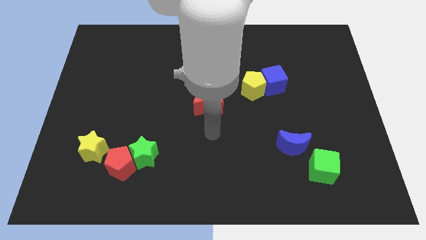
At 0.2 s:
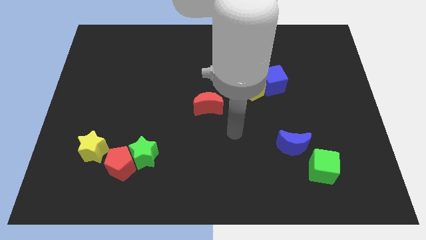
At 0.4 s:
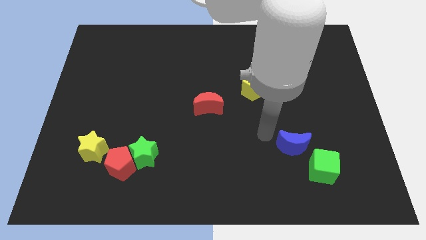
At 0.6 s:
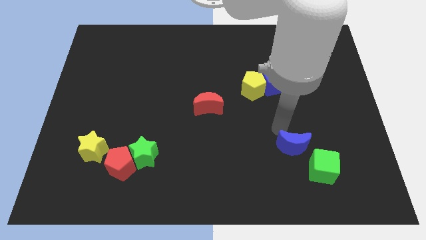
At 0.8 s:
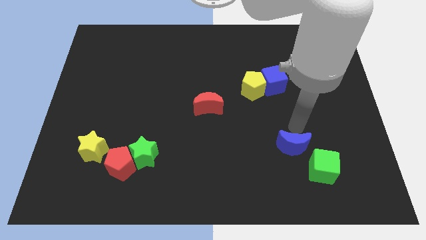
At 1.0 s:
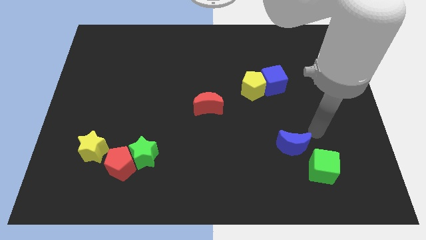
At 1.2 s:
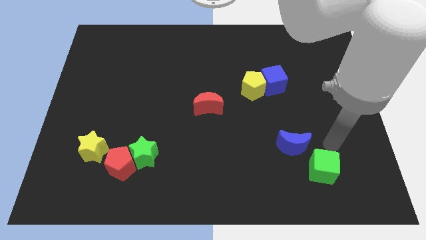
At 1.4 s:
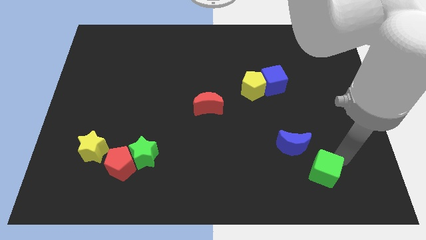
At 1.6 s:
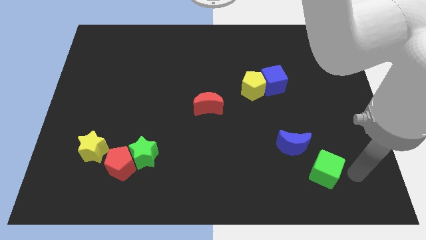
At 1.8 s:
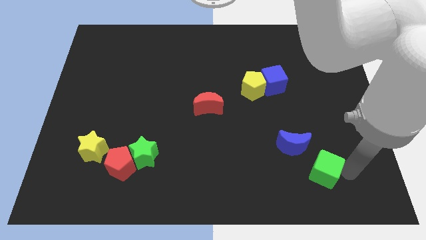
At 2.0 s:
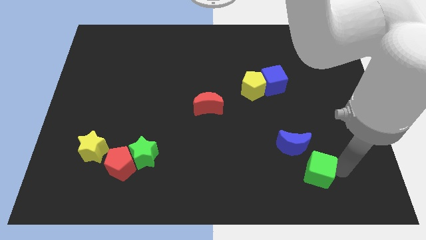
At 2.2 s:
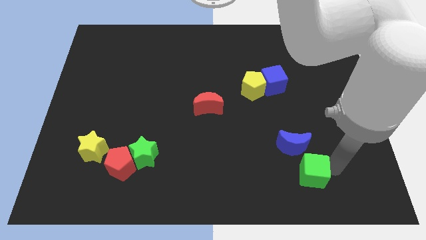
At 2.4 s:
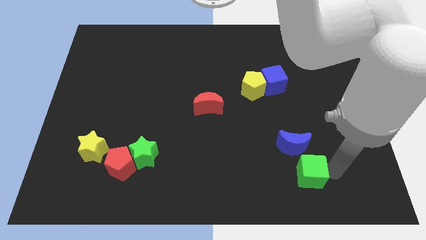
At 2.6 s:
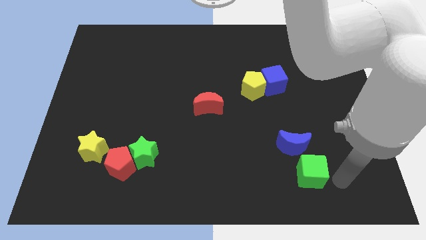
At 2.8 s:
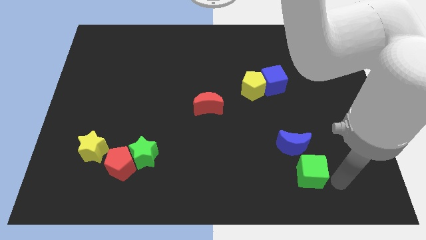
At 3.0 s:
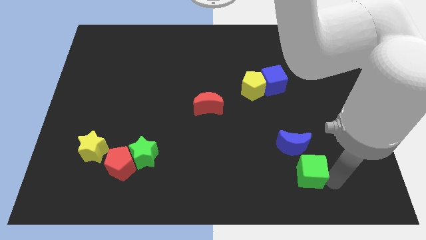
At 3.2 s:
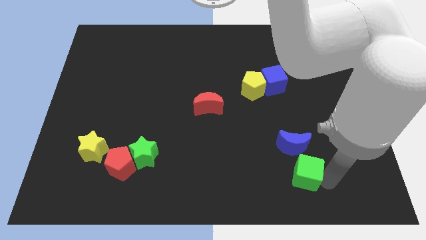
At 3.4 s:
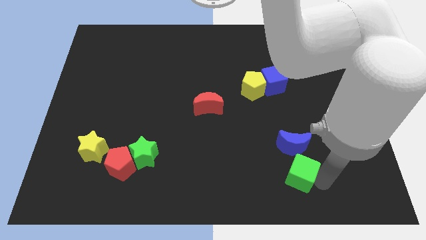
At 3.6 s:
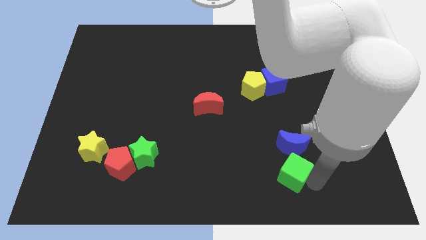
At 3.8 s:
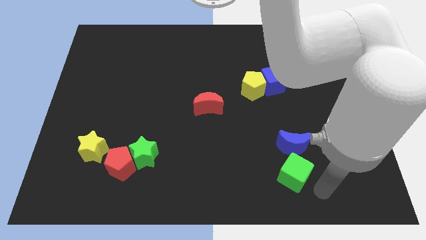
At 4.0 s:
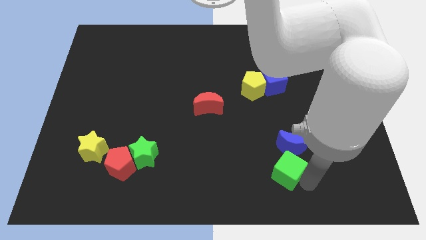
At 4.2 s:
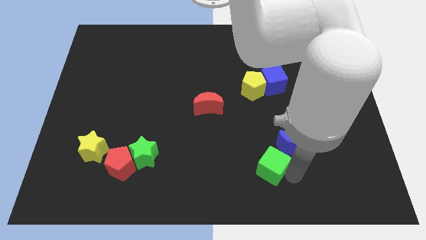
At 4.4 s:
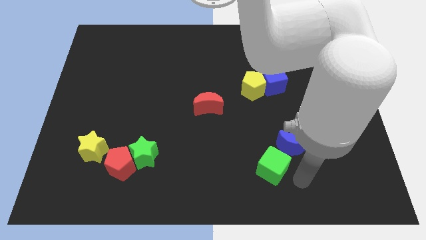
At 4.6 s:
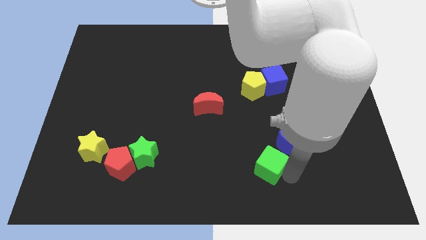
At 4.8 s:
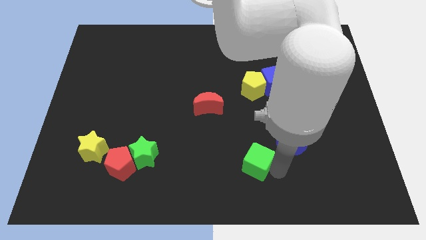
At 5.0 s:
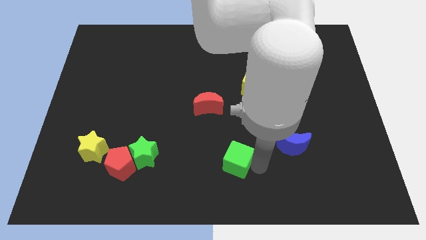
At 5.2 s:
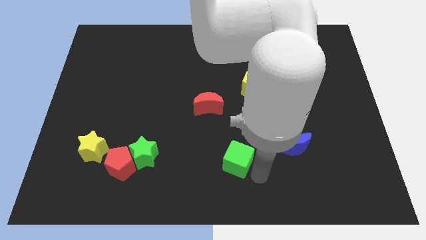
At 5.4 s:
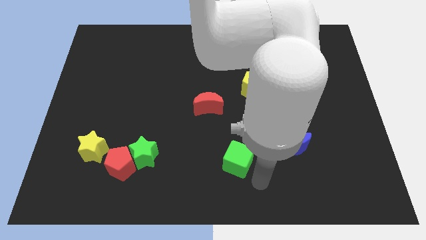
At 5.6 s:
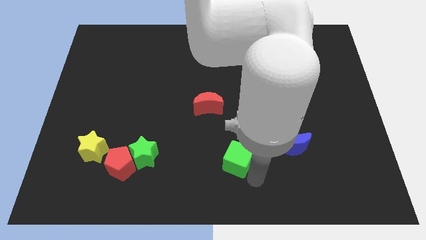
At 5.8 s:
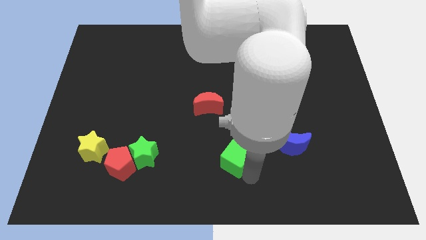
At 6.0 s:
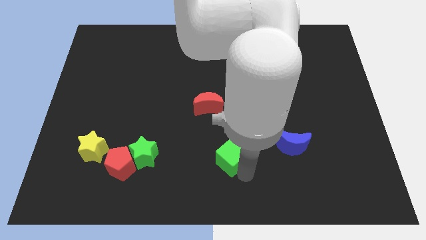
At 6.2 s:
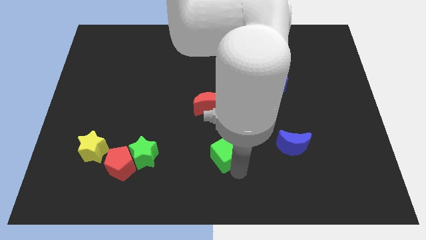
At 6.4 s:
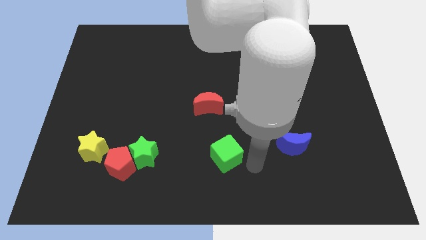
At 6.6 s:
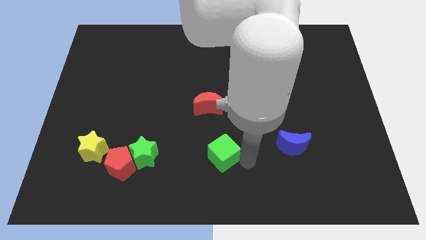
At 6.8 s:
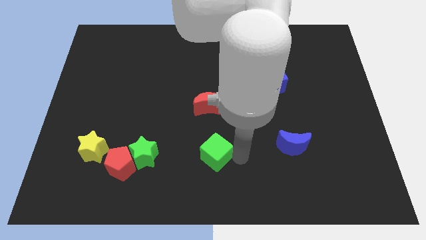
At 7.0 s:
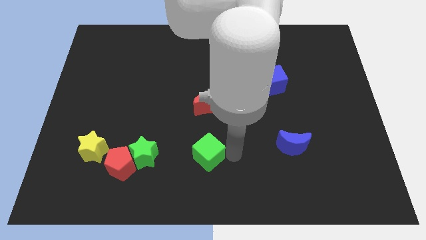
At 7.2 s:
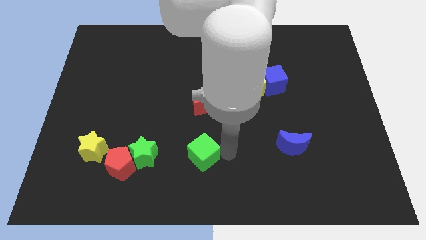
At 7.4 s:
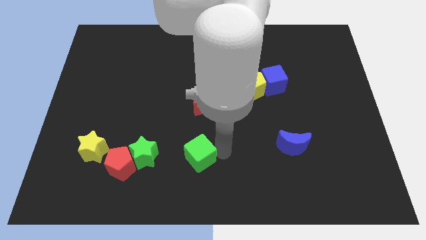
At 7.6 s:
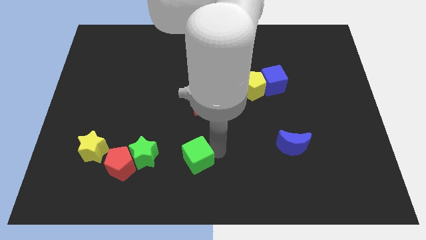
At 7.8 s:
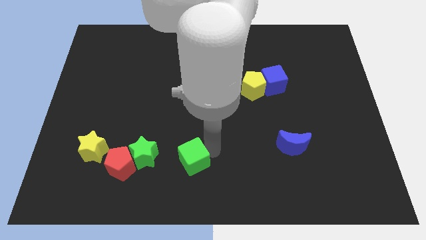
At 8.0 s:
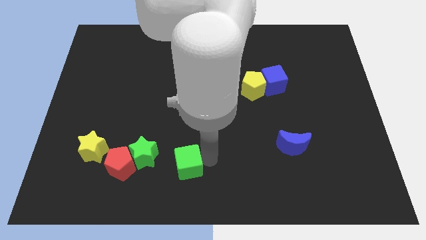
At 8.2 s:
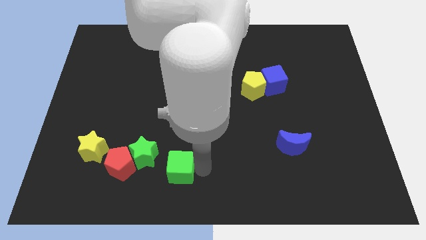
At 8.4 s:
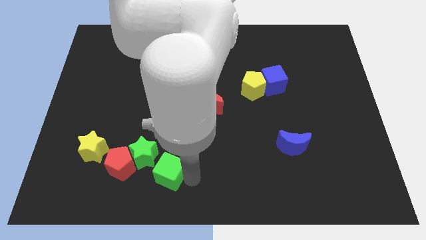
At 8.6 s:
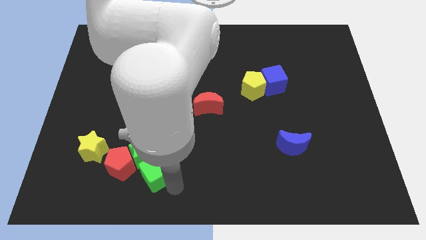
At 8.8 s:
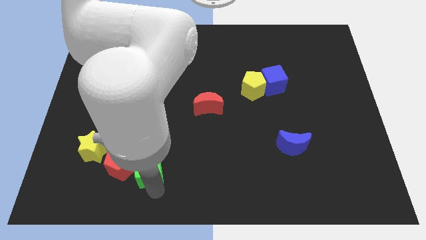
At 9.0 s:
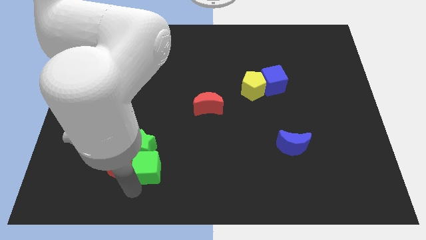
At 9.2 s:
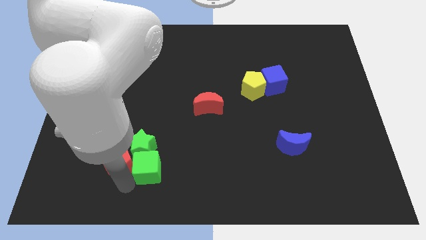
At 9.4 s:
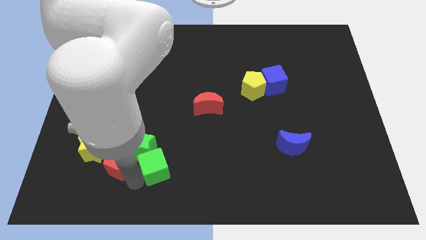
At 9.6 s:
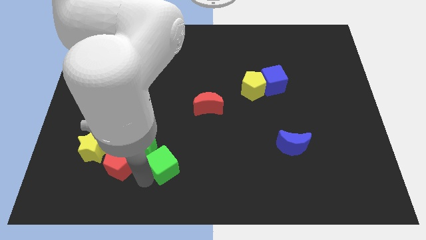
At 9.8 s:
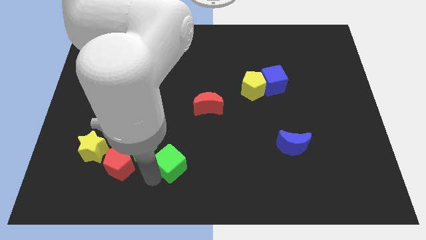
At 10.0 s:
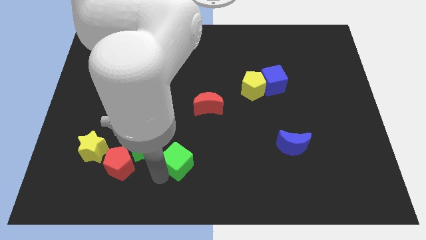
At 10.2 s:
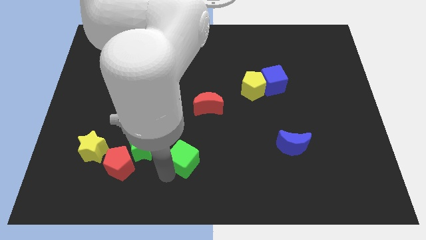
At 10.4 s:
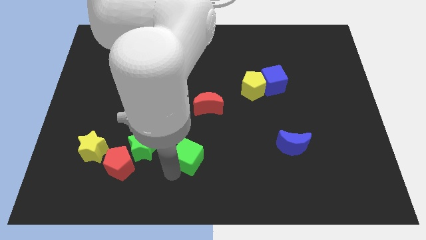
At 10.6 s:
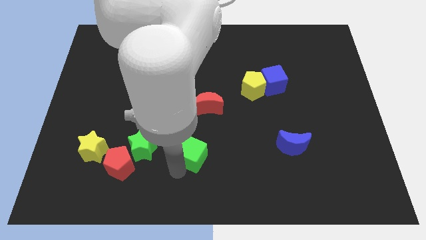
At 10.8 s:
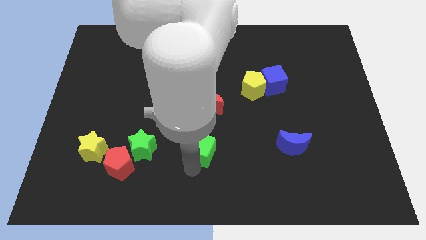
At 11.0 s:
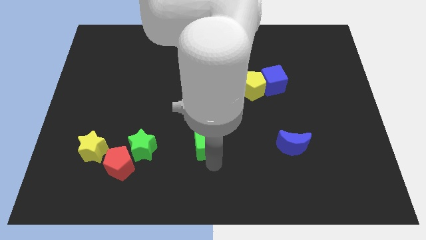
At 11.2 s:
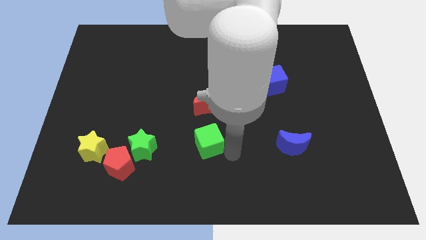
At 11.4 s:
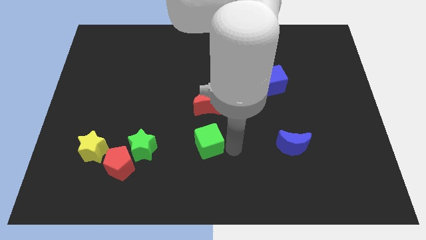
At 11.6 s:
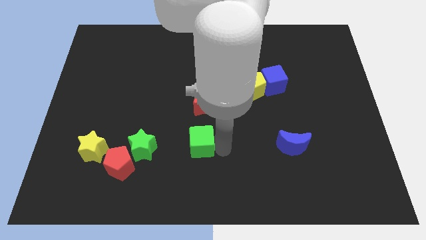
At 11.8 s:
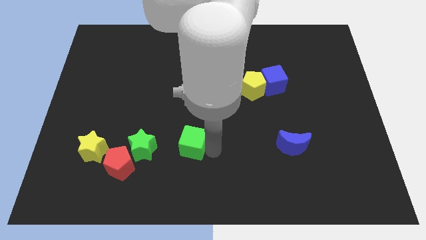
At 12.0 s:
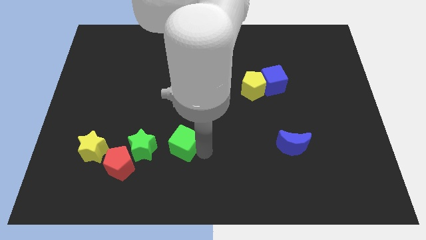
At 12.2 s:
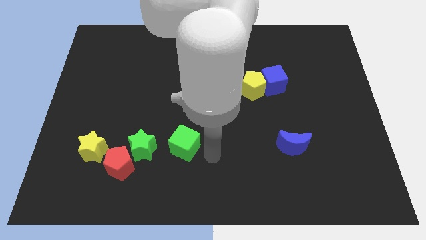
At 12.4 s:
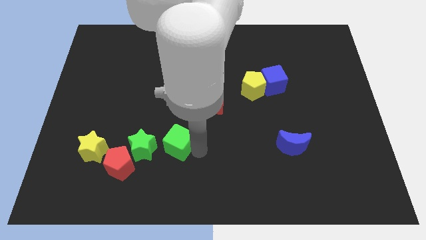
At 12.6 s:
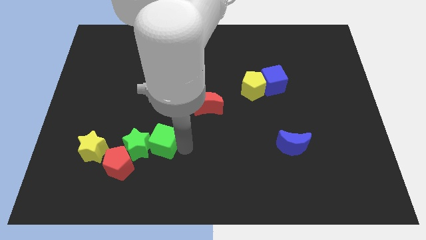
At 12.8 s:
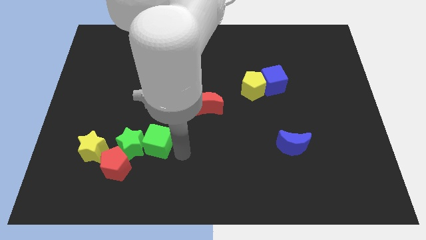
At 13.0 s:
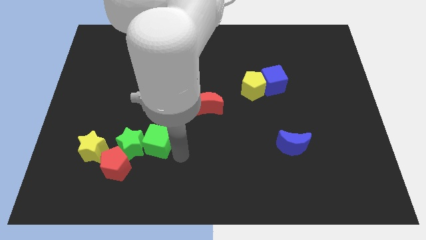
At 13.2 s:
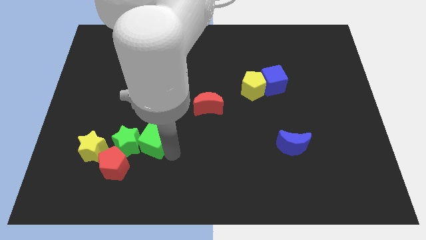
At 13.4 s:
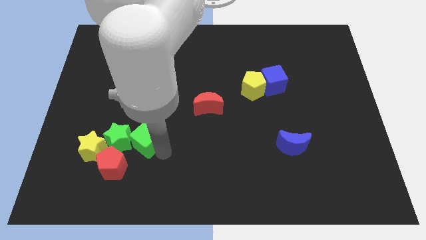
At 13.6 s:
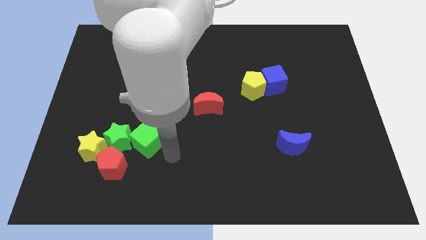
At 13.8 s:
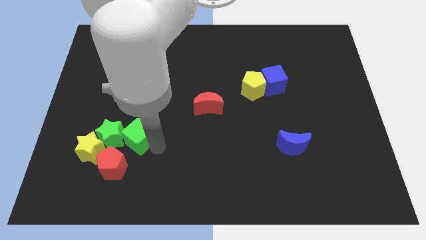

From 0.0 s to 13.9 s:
move the green cube above the red pentagon
